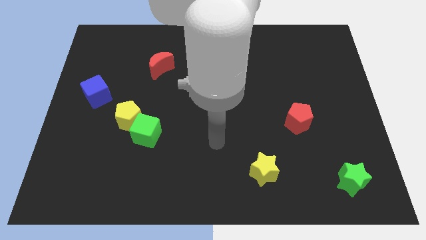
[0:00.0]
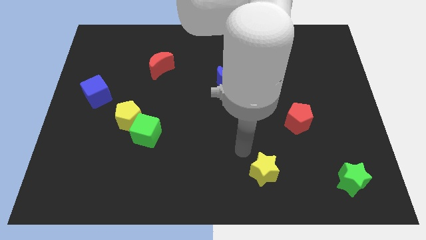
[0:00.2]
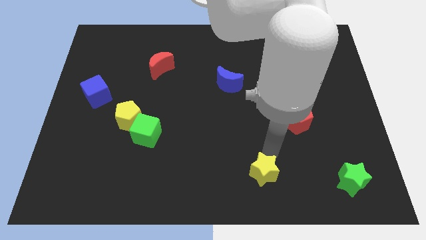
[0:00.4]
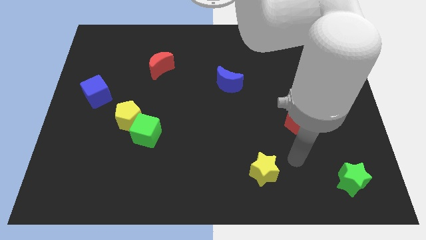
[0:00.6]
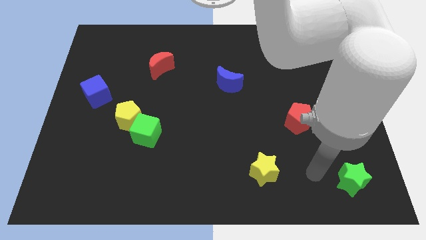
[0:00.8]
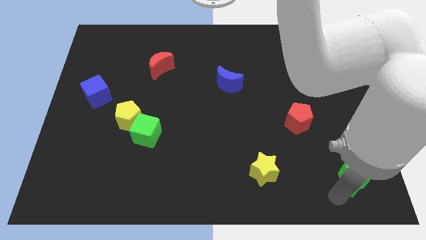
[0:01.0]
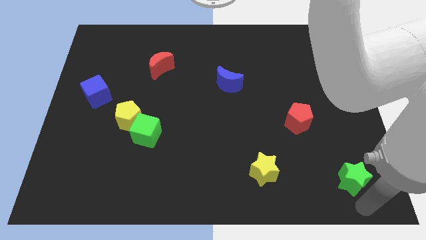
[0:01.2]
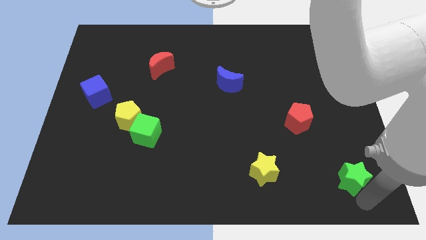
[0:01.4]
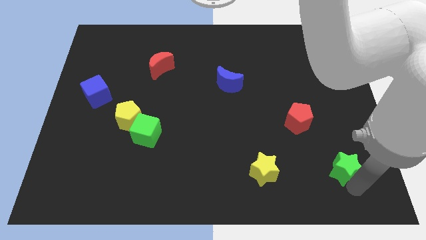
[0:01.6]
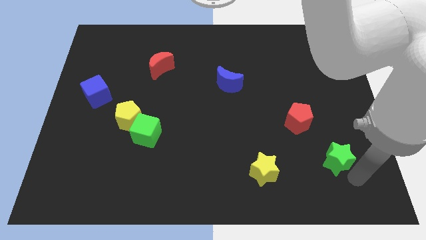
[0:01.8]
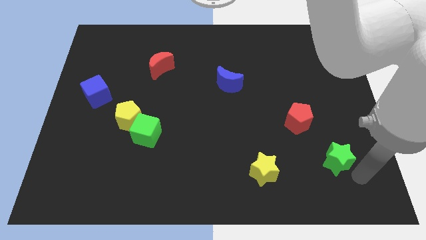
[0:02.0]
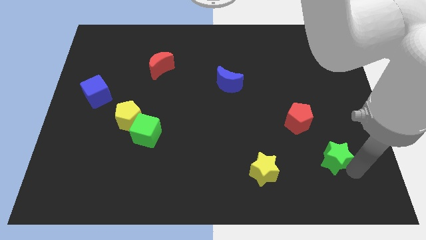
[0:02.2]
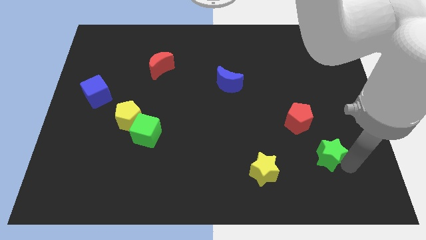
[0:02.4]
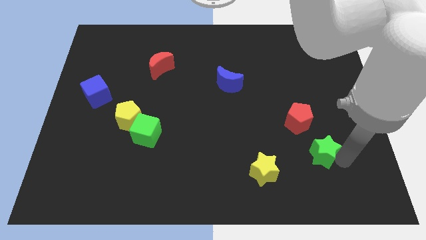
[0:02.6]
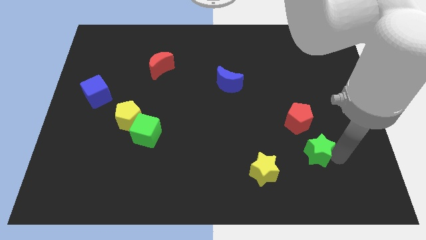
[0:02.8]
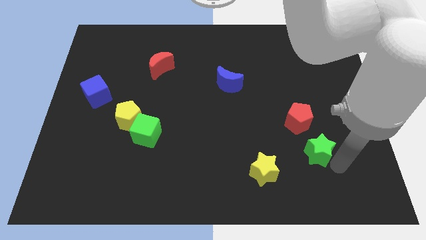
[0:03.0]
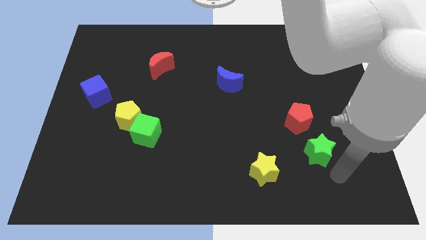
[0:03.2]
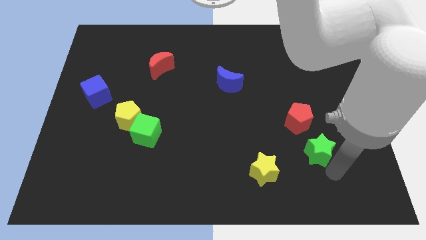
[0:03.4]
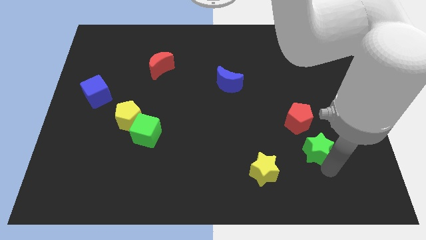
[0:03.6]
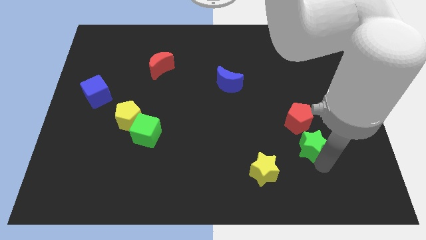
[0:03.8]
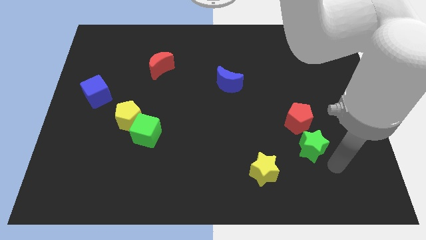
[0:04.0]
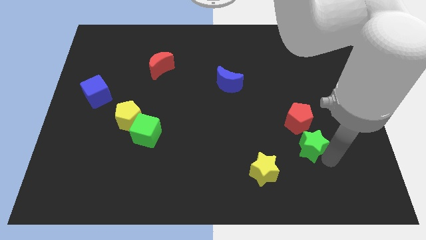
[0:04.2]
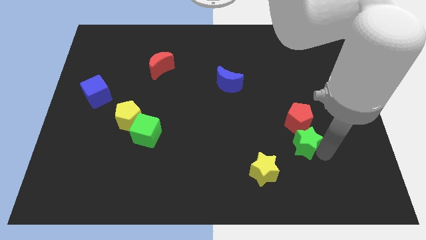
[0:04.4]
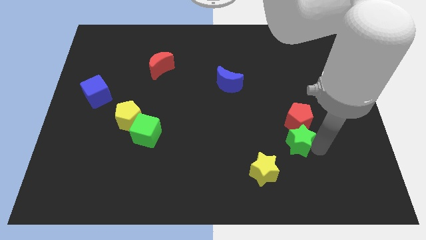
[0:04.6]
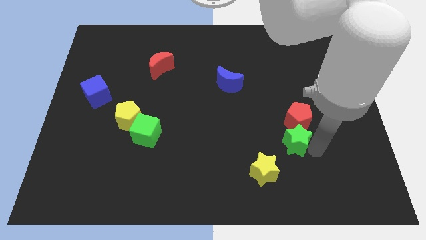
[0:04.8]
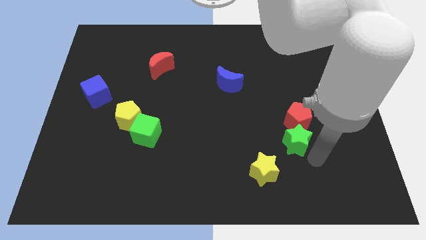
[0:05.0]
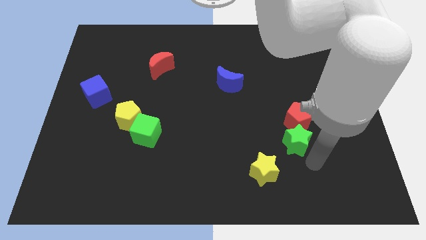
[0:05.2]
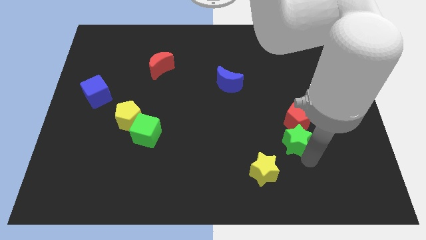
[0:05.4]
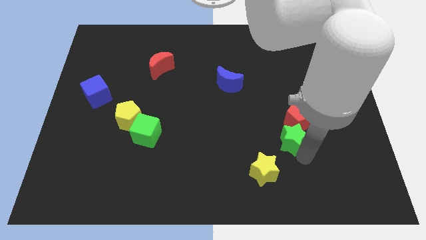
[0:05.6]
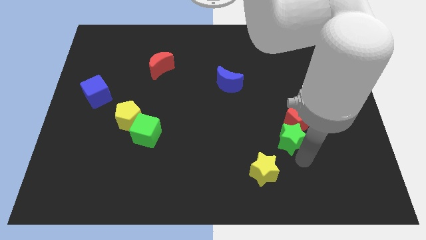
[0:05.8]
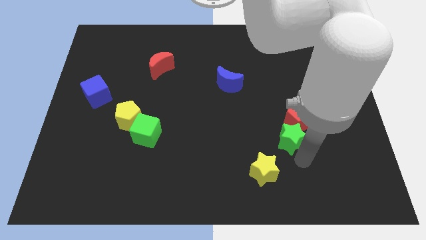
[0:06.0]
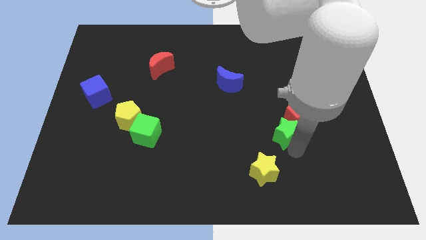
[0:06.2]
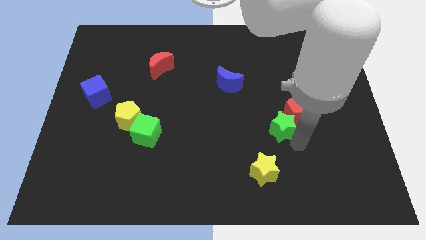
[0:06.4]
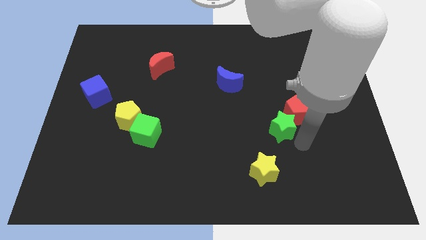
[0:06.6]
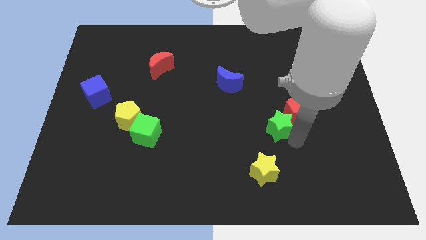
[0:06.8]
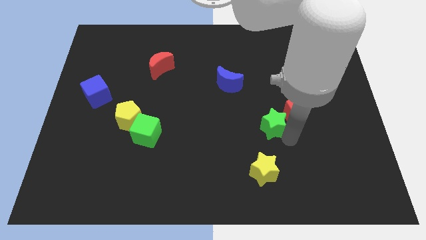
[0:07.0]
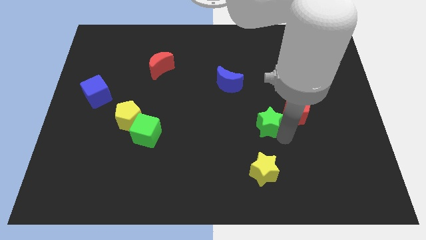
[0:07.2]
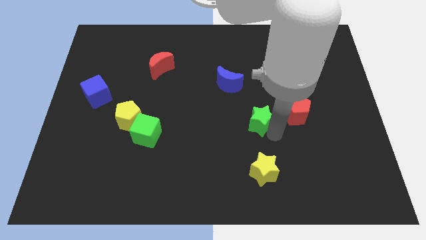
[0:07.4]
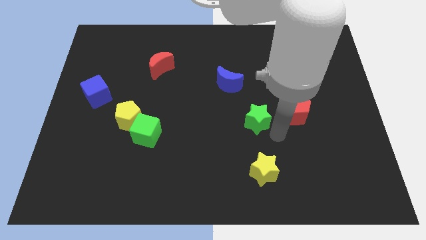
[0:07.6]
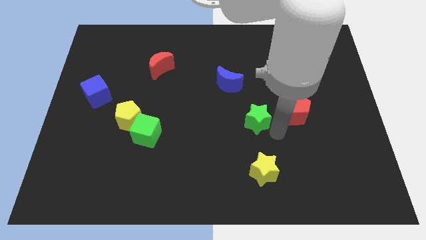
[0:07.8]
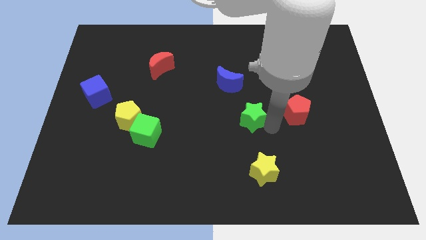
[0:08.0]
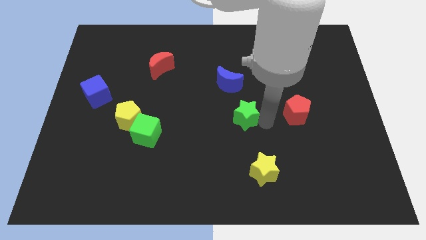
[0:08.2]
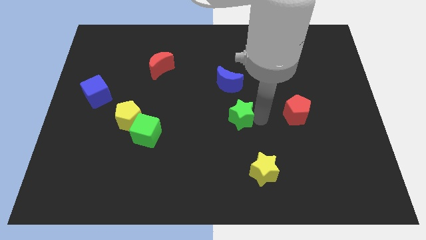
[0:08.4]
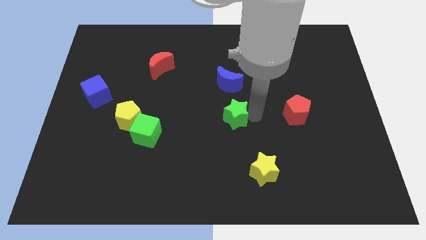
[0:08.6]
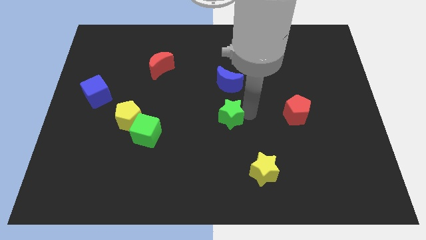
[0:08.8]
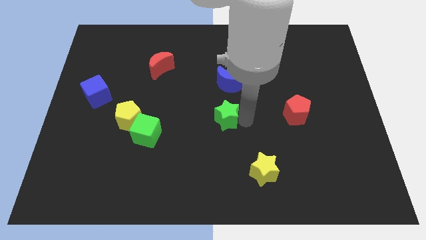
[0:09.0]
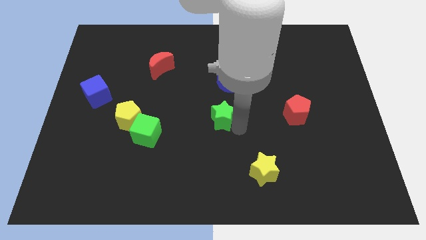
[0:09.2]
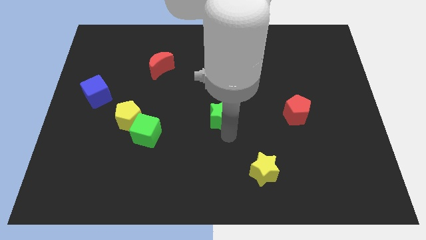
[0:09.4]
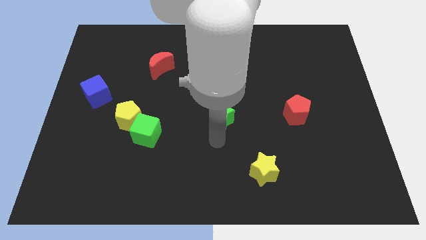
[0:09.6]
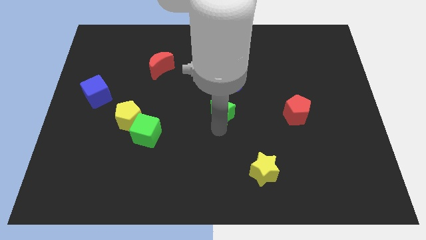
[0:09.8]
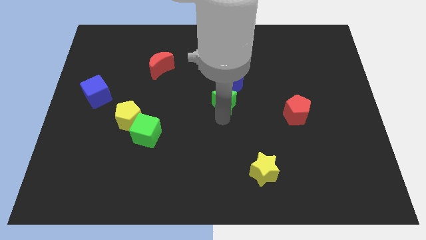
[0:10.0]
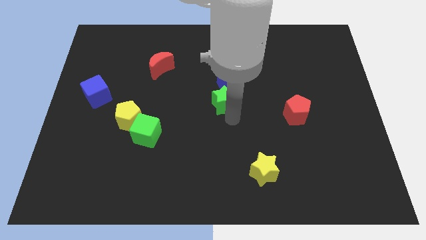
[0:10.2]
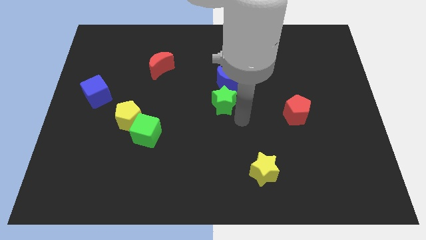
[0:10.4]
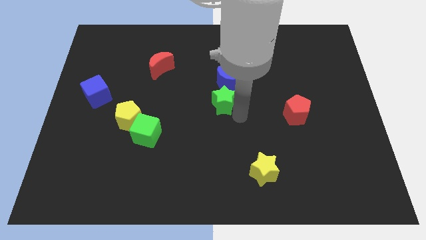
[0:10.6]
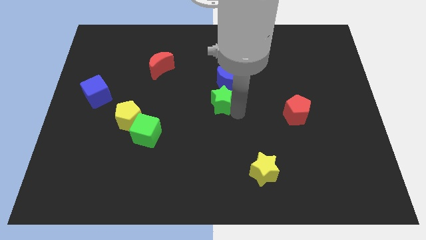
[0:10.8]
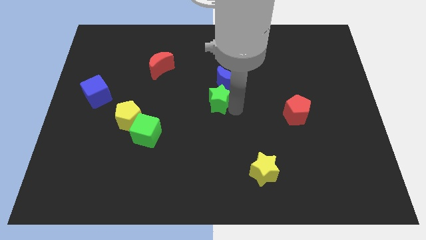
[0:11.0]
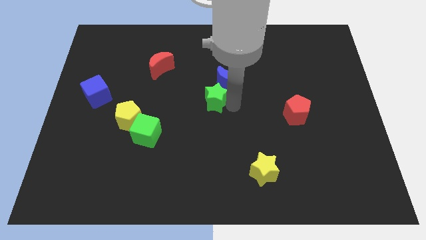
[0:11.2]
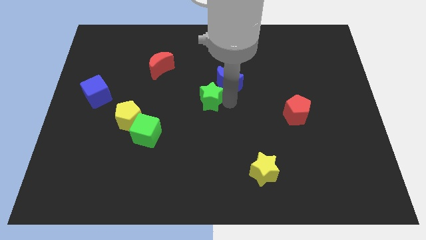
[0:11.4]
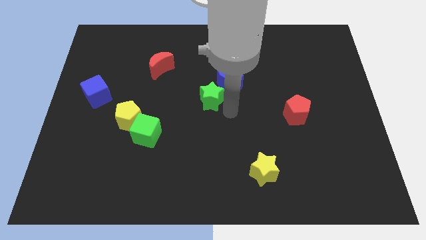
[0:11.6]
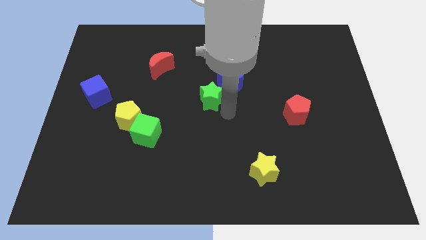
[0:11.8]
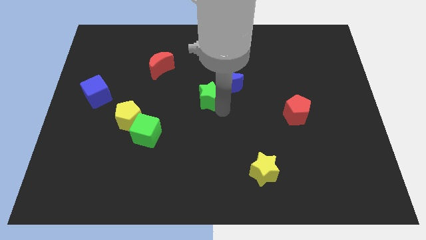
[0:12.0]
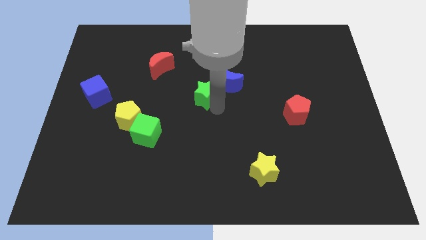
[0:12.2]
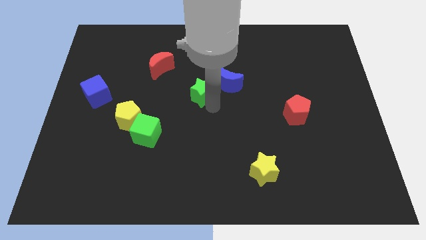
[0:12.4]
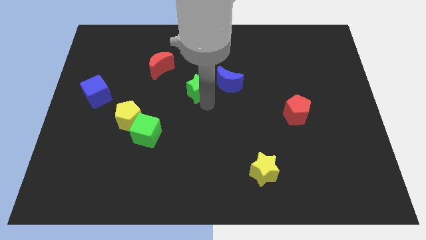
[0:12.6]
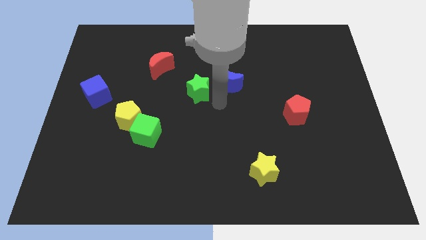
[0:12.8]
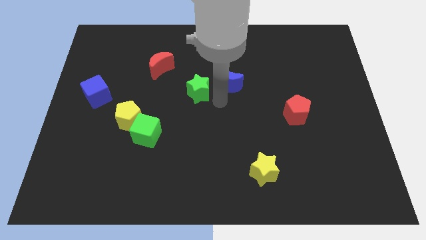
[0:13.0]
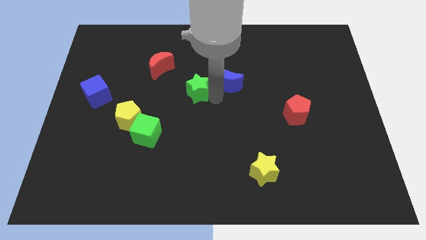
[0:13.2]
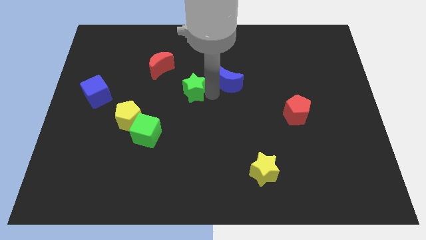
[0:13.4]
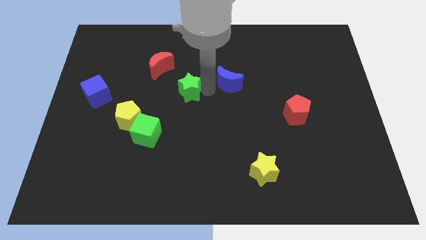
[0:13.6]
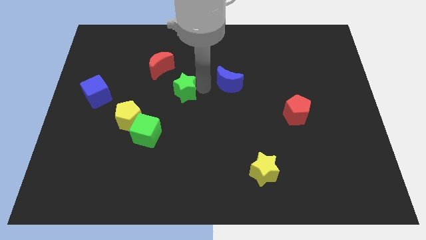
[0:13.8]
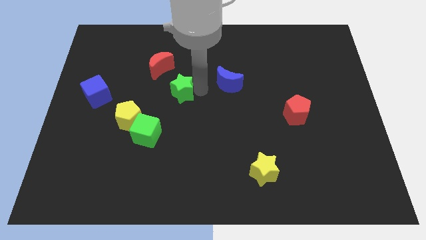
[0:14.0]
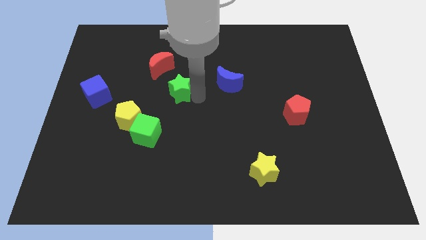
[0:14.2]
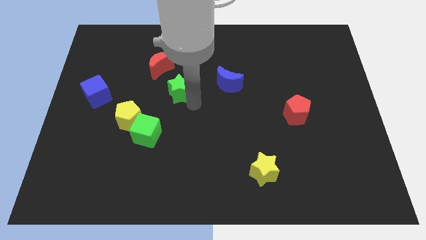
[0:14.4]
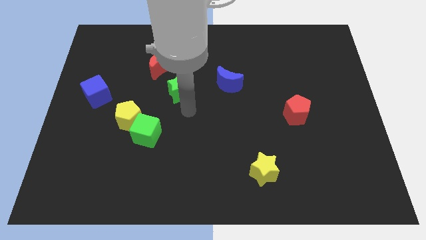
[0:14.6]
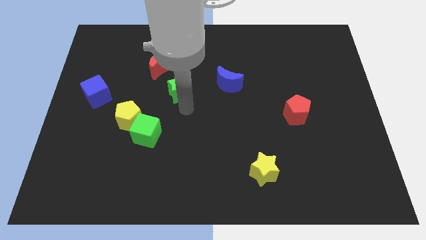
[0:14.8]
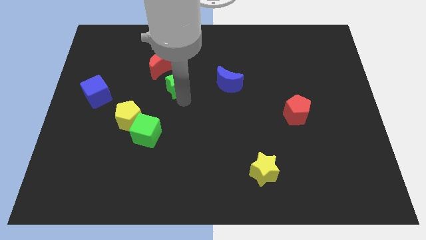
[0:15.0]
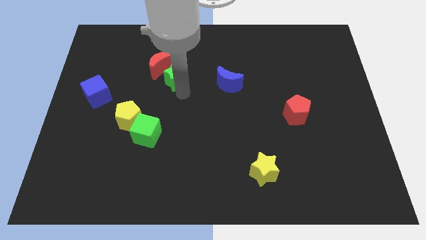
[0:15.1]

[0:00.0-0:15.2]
move the green star next to the red moon
